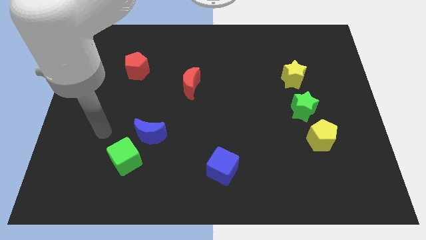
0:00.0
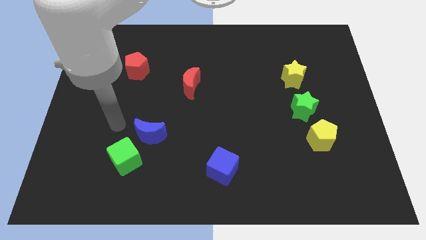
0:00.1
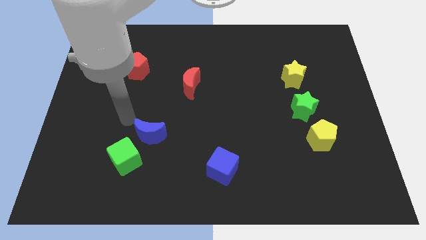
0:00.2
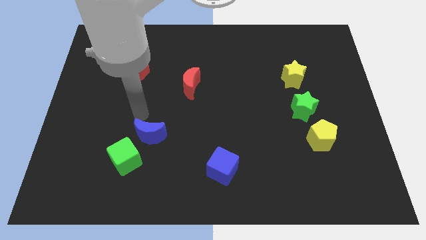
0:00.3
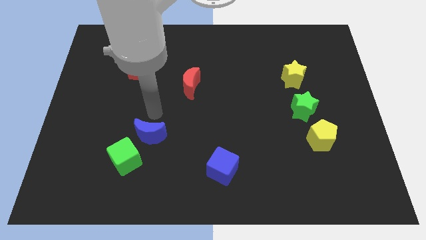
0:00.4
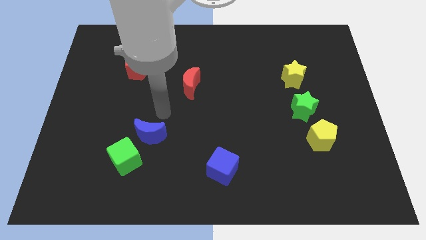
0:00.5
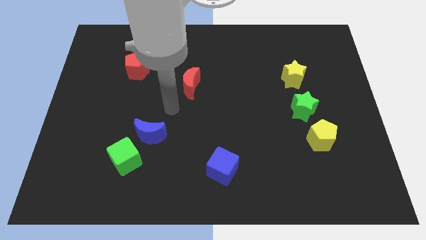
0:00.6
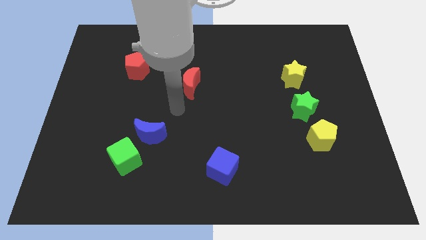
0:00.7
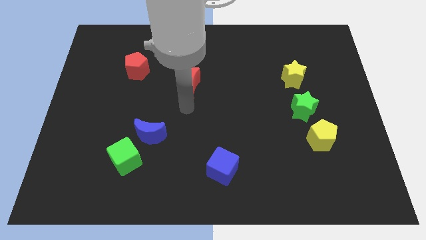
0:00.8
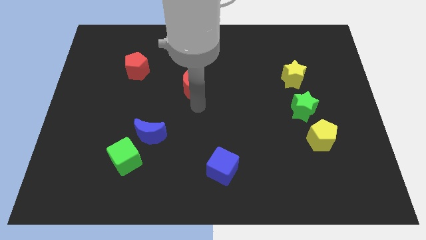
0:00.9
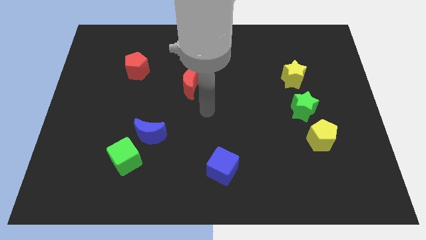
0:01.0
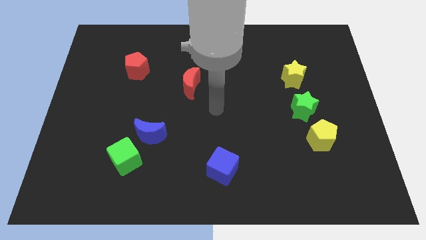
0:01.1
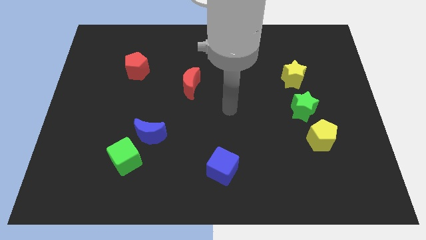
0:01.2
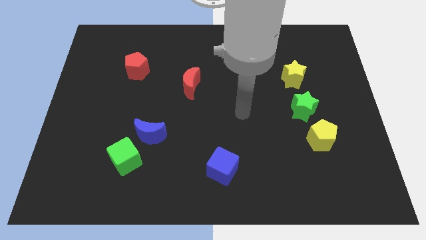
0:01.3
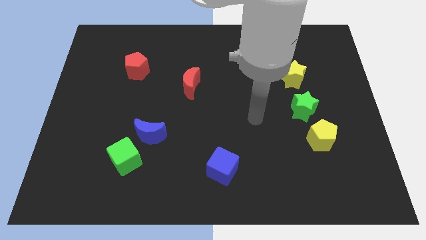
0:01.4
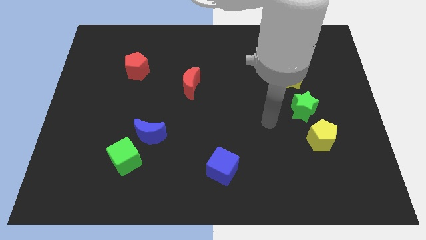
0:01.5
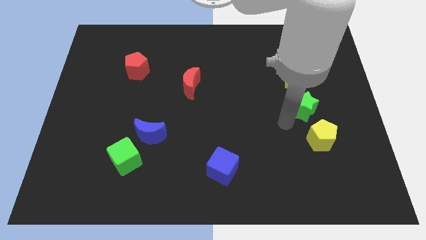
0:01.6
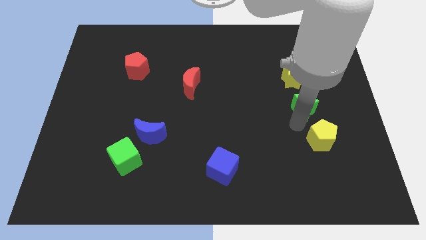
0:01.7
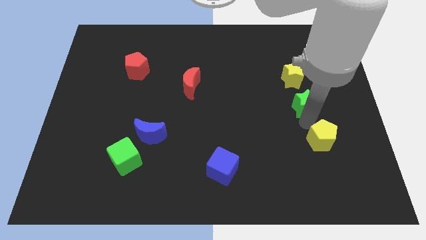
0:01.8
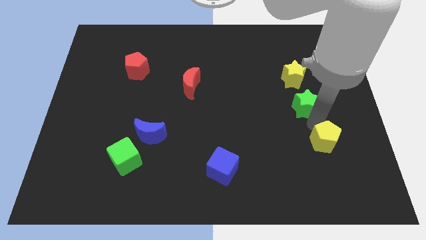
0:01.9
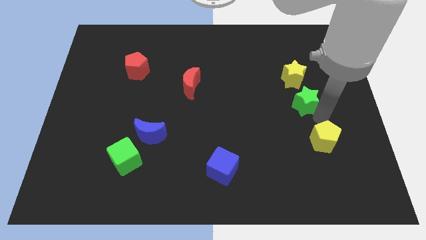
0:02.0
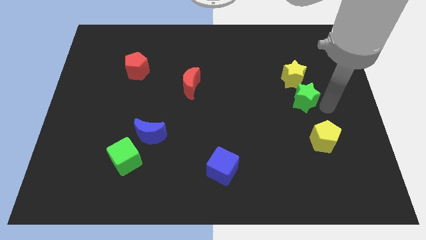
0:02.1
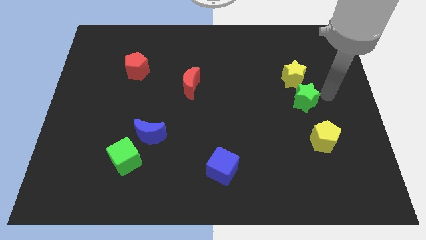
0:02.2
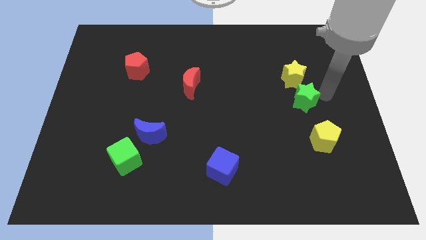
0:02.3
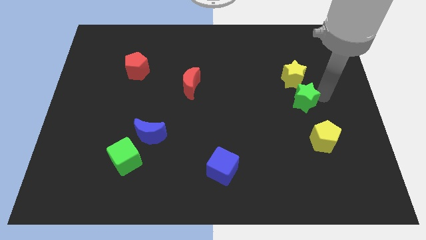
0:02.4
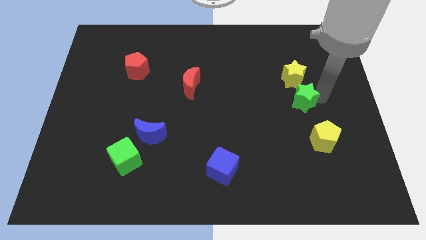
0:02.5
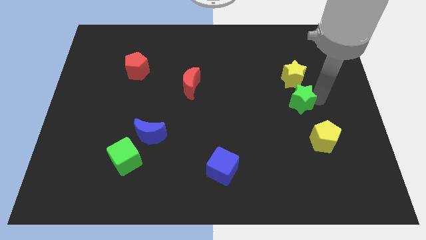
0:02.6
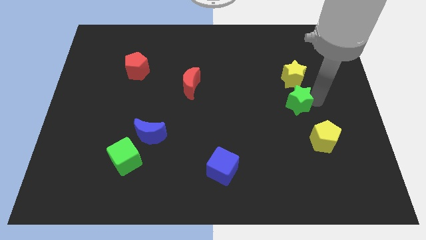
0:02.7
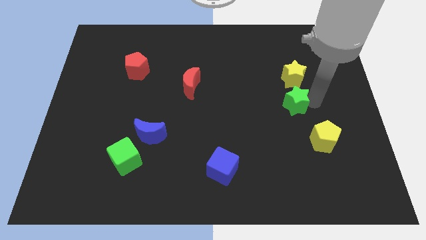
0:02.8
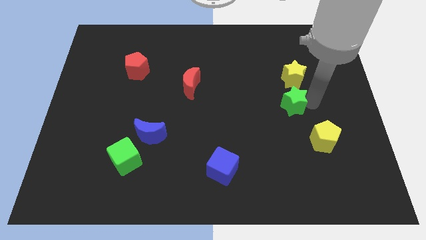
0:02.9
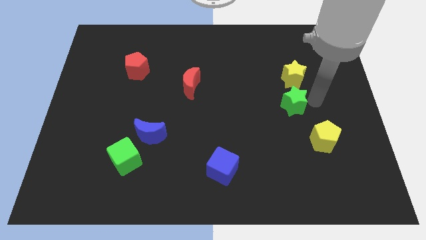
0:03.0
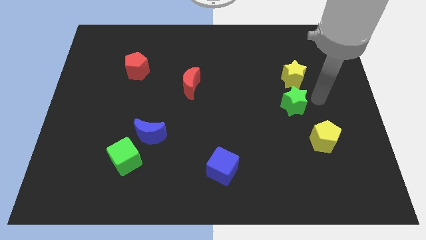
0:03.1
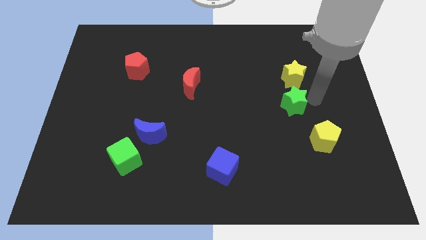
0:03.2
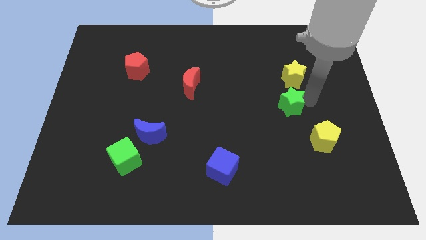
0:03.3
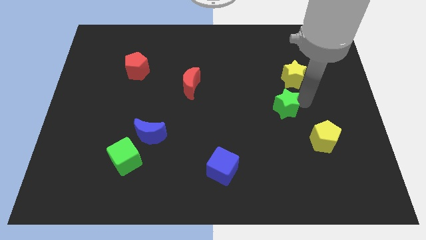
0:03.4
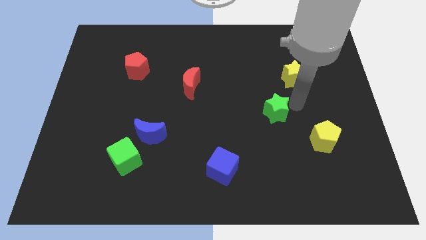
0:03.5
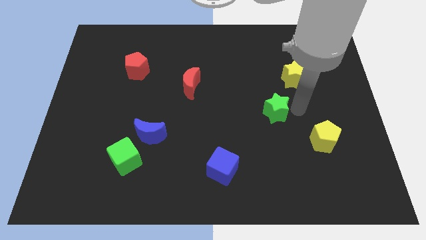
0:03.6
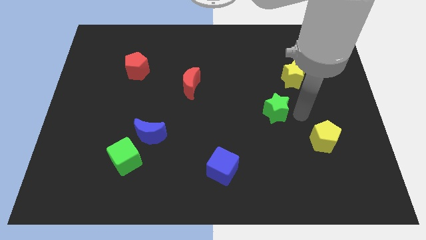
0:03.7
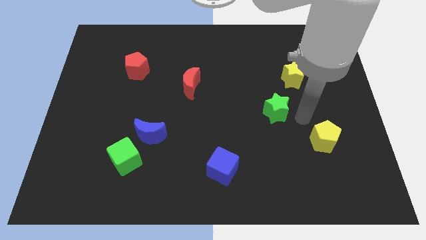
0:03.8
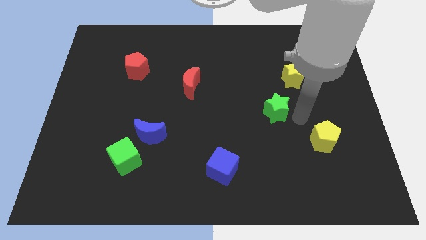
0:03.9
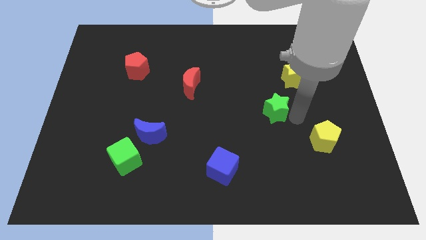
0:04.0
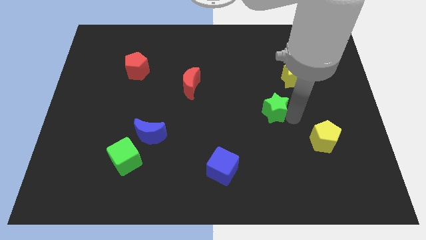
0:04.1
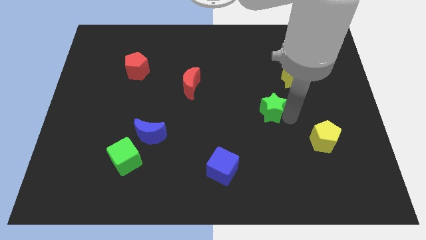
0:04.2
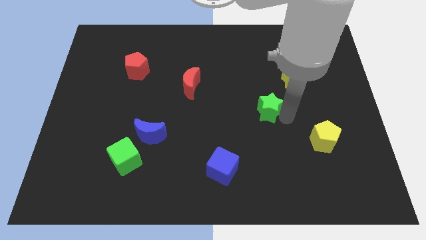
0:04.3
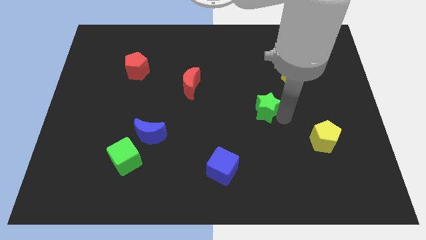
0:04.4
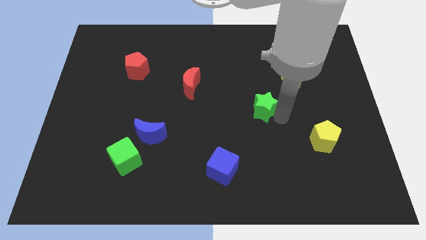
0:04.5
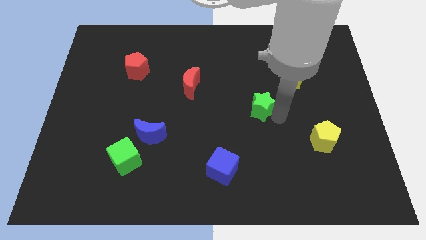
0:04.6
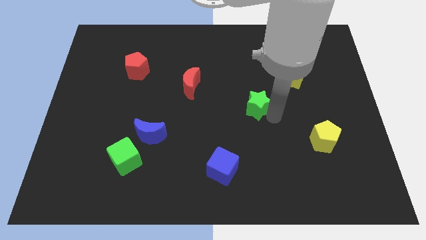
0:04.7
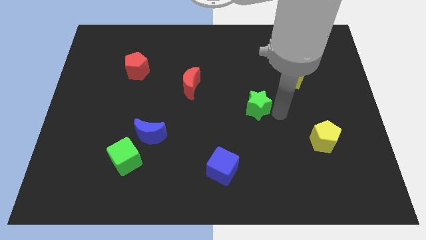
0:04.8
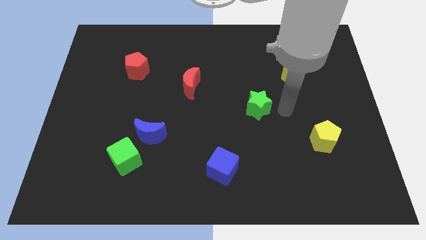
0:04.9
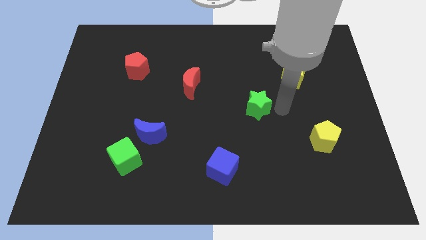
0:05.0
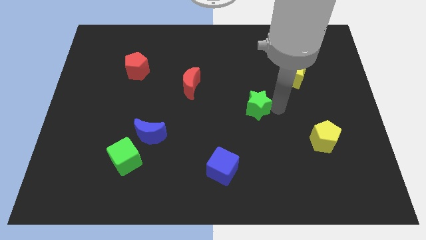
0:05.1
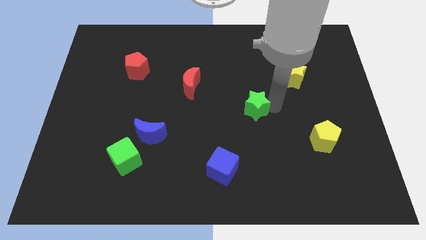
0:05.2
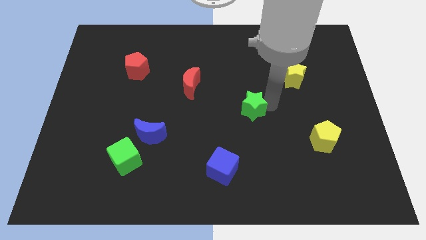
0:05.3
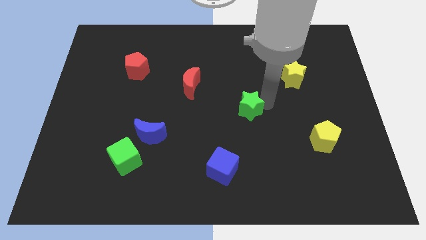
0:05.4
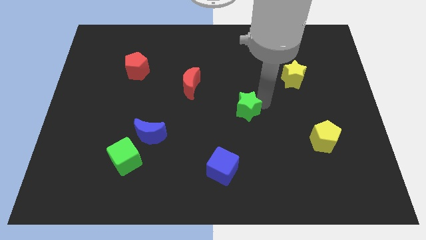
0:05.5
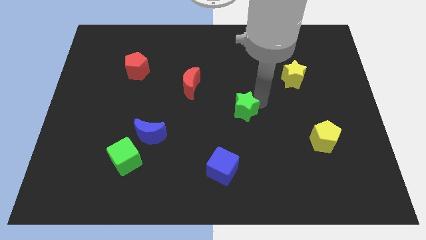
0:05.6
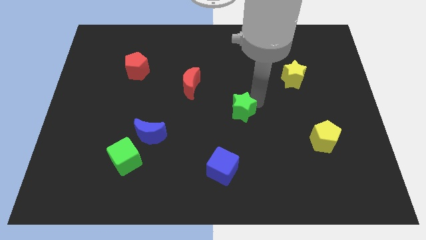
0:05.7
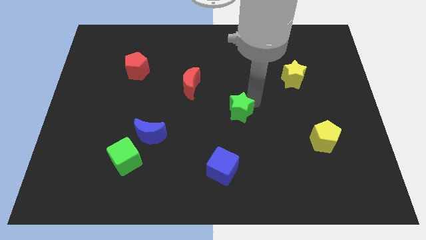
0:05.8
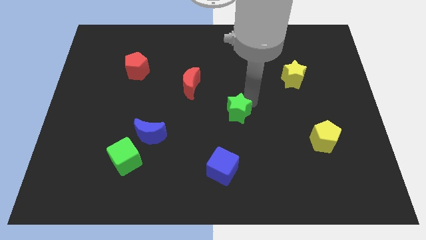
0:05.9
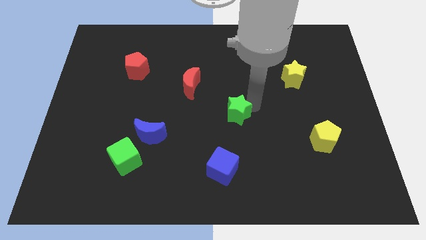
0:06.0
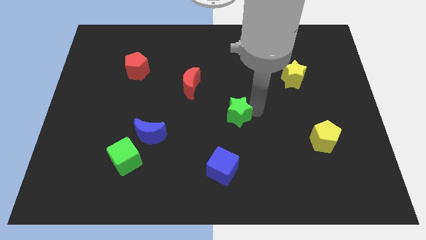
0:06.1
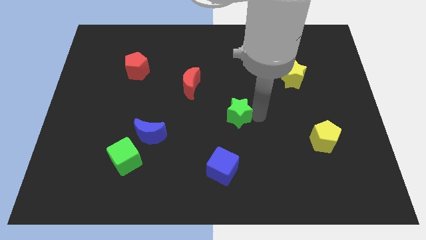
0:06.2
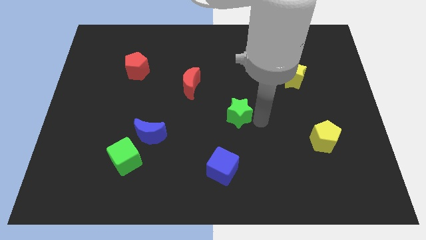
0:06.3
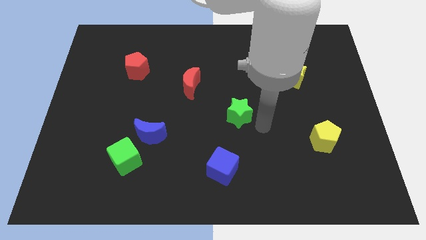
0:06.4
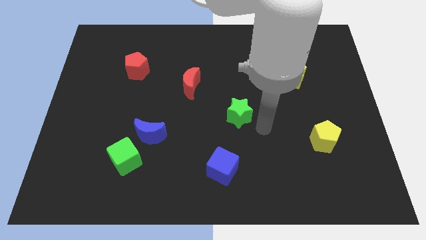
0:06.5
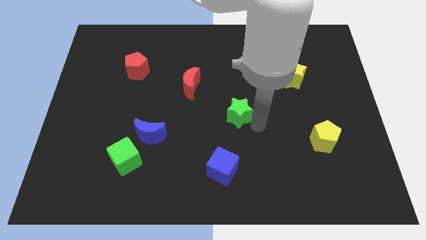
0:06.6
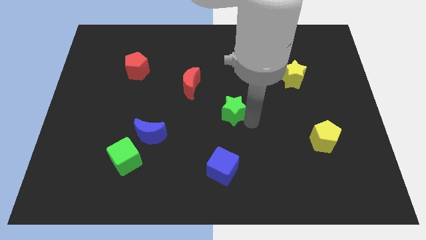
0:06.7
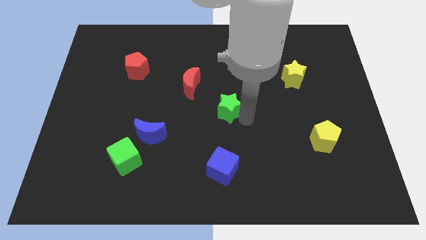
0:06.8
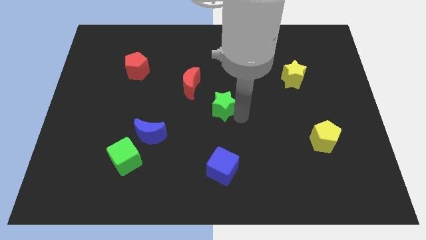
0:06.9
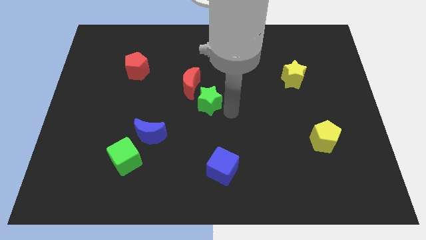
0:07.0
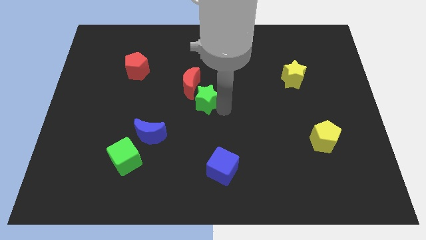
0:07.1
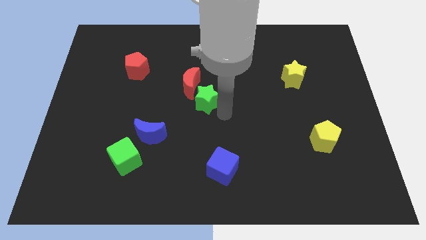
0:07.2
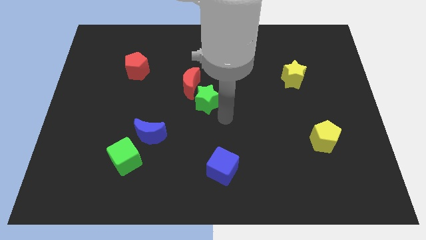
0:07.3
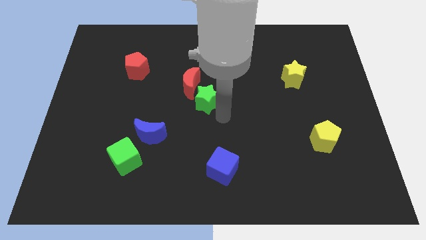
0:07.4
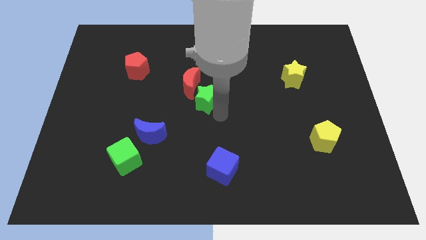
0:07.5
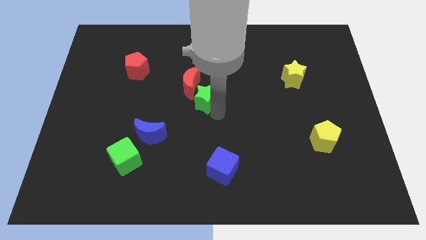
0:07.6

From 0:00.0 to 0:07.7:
push the green star close to the red moon
